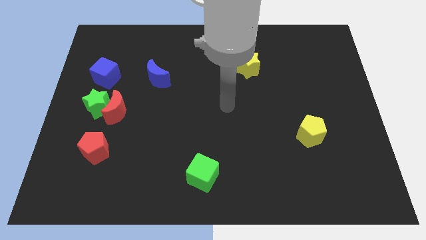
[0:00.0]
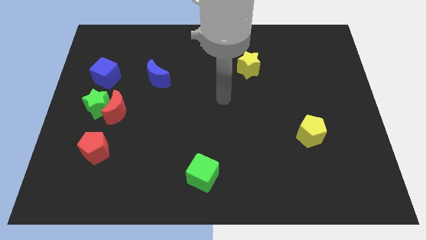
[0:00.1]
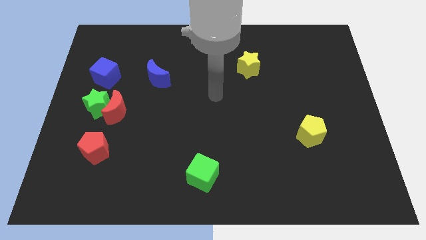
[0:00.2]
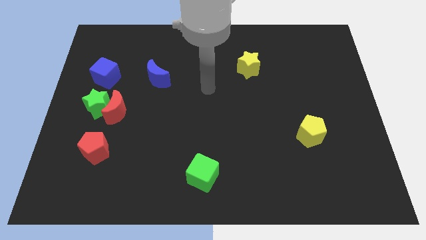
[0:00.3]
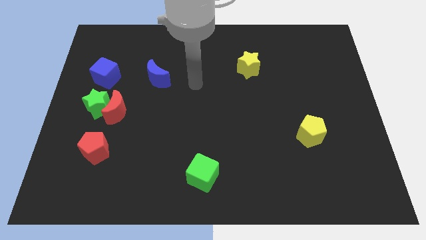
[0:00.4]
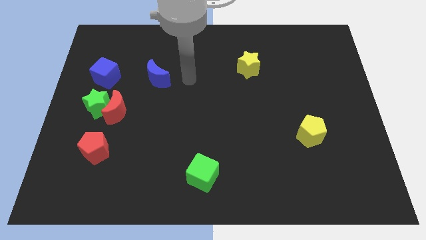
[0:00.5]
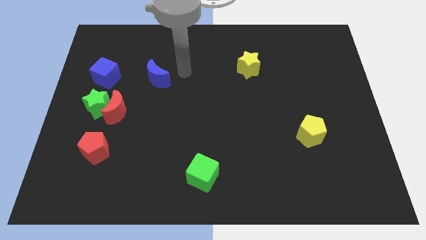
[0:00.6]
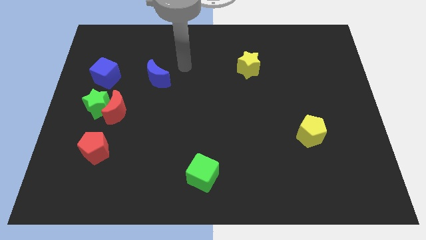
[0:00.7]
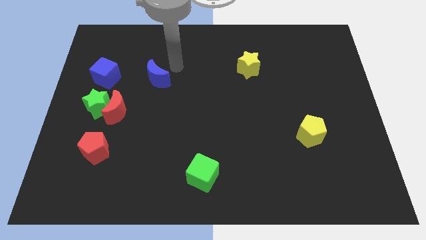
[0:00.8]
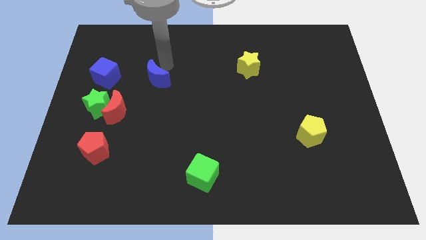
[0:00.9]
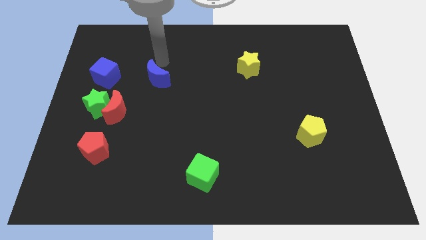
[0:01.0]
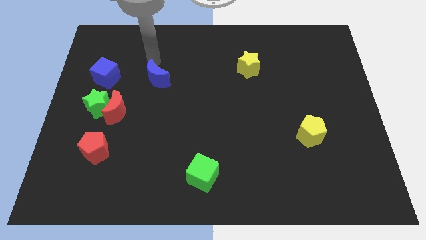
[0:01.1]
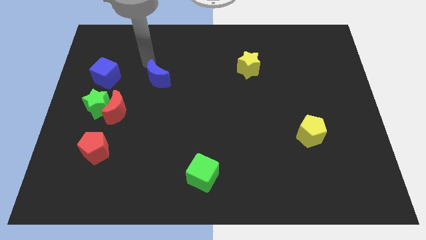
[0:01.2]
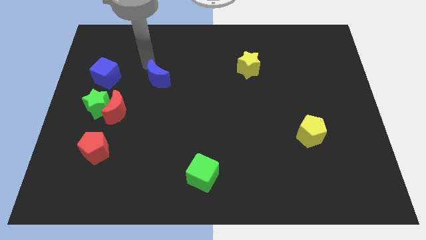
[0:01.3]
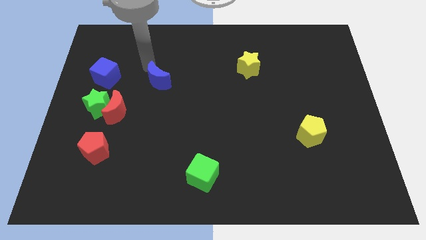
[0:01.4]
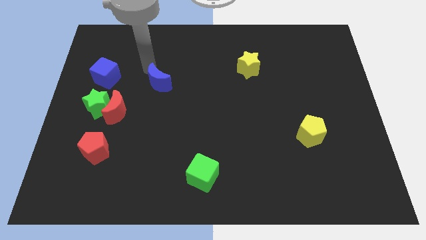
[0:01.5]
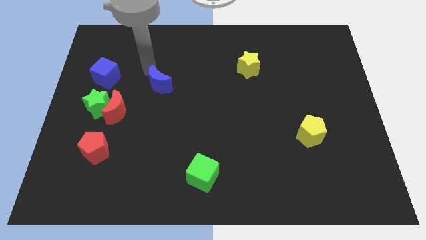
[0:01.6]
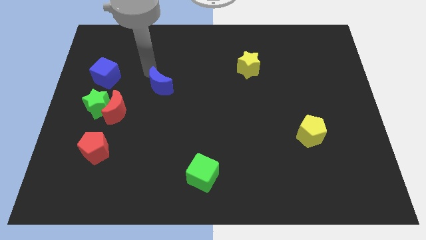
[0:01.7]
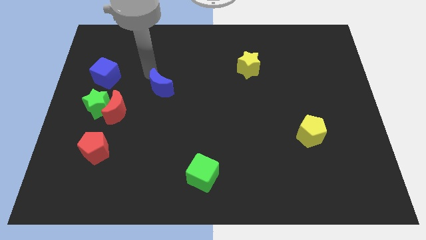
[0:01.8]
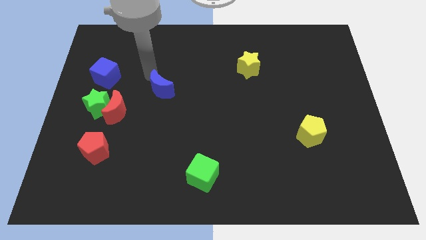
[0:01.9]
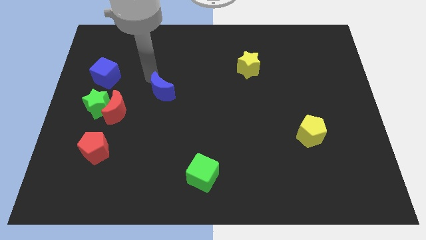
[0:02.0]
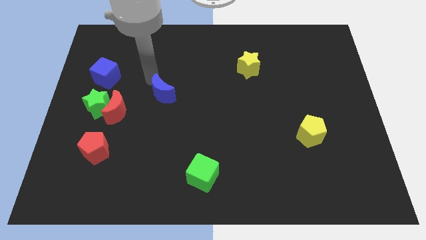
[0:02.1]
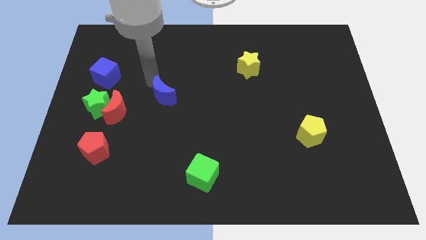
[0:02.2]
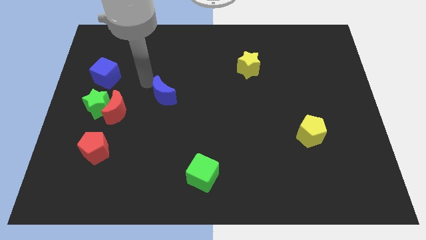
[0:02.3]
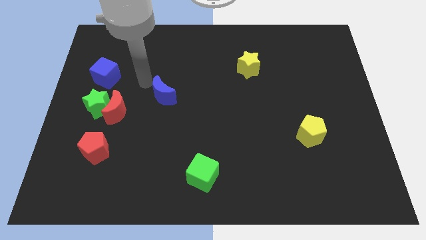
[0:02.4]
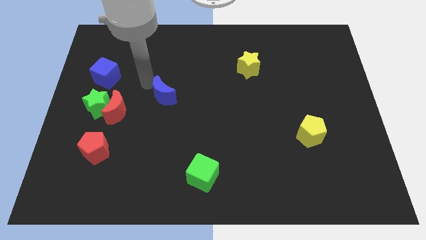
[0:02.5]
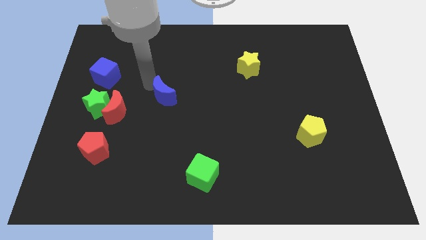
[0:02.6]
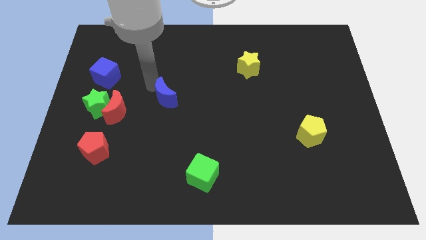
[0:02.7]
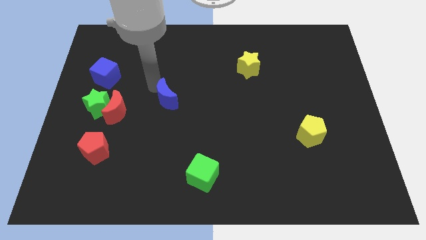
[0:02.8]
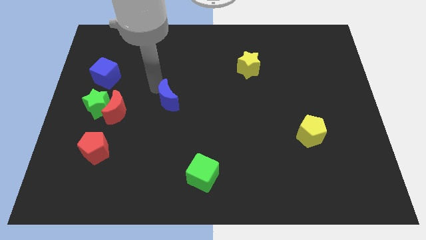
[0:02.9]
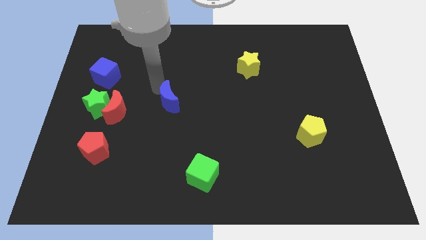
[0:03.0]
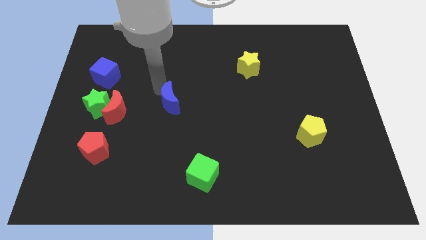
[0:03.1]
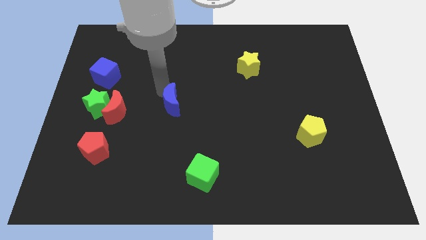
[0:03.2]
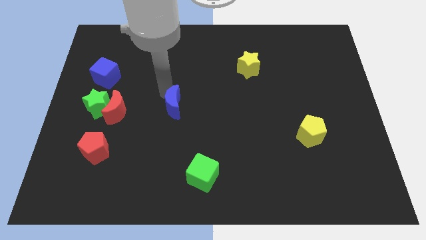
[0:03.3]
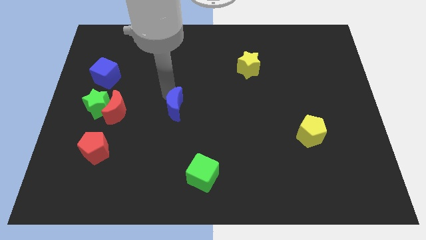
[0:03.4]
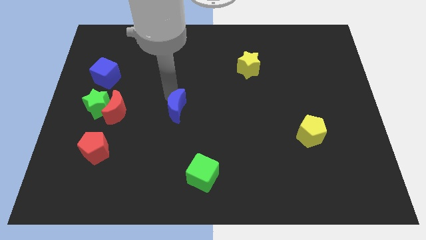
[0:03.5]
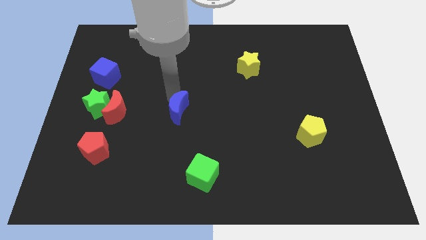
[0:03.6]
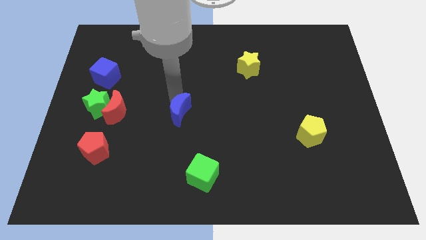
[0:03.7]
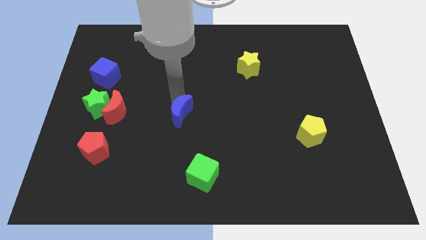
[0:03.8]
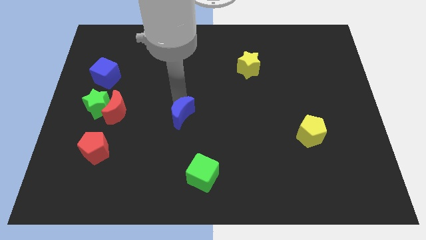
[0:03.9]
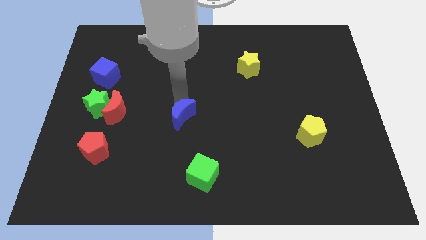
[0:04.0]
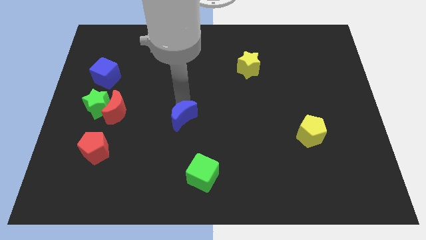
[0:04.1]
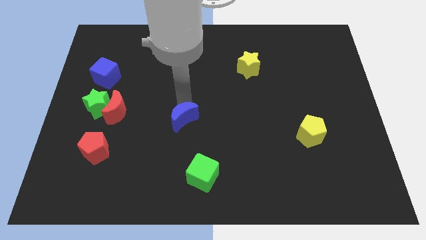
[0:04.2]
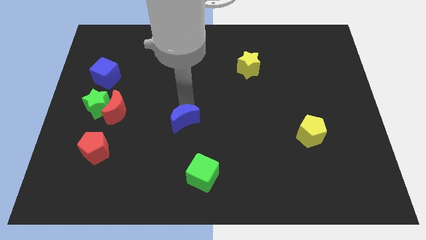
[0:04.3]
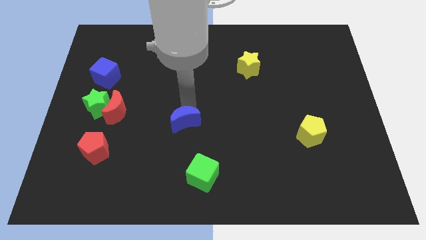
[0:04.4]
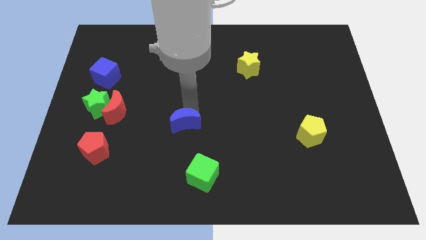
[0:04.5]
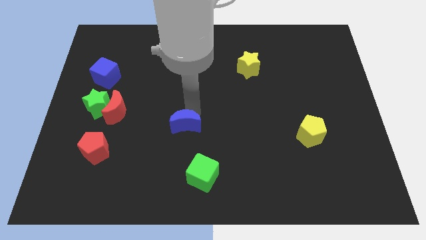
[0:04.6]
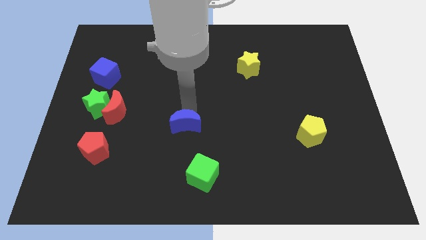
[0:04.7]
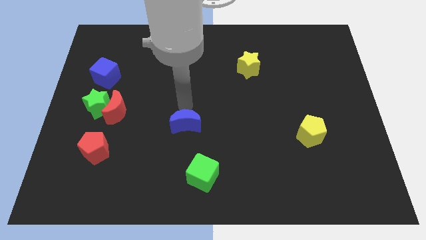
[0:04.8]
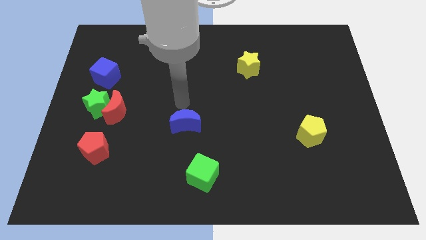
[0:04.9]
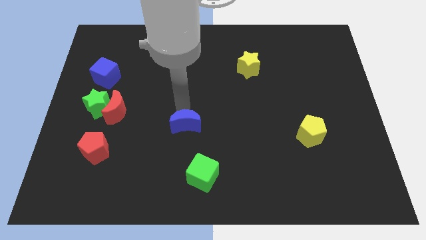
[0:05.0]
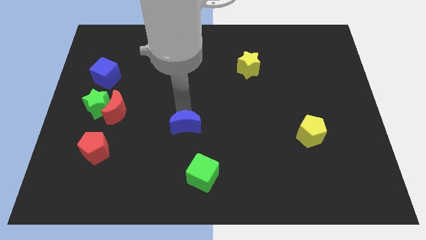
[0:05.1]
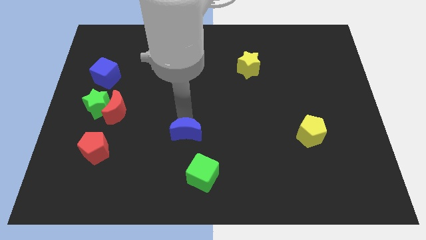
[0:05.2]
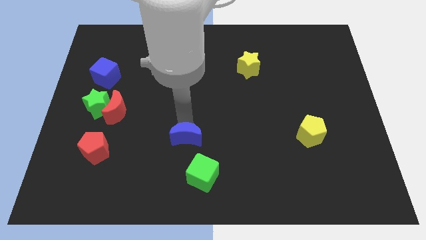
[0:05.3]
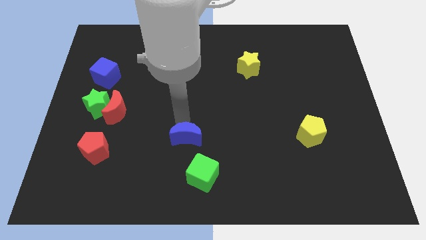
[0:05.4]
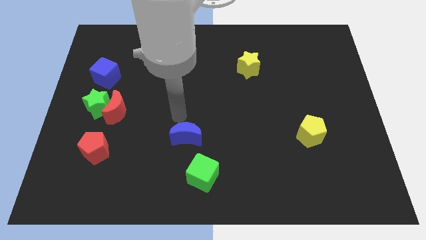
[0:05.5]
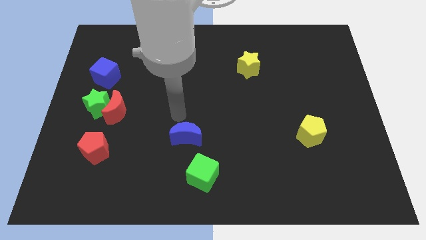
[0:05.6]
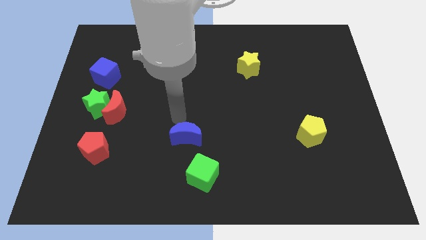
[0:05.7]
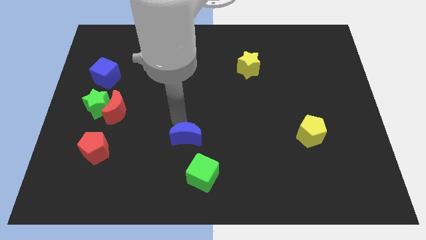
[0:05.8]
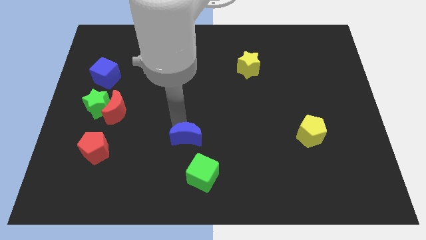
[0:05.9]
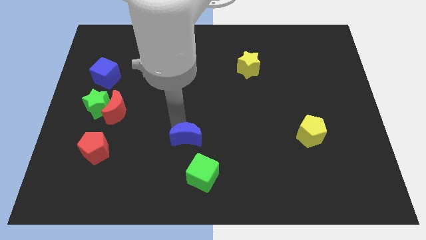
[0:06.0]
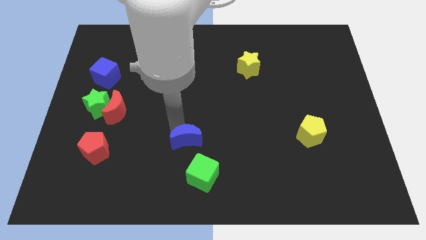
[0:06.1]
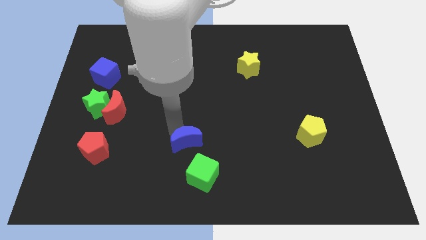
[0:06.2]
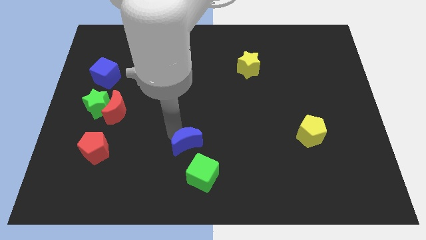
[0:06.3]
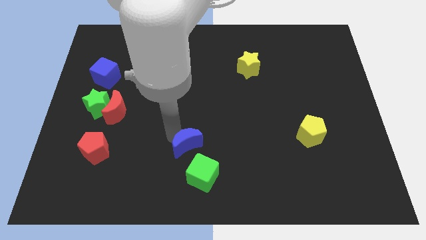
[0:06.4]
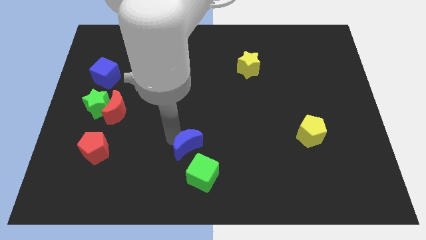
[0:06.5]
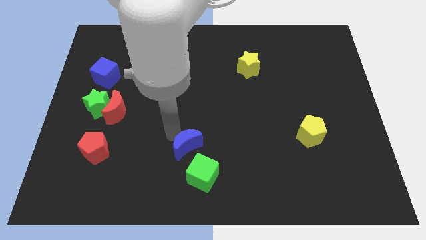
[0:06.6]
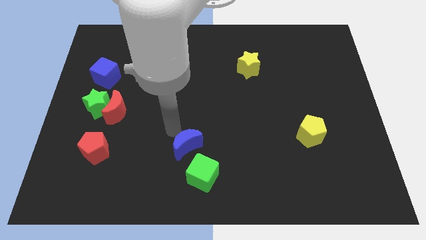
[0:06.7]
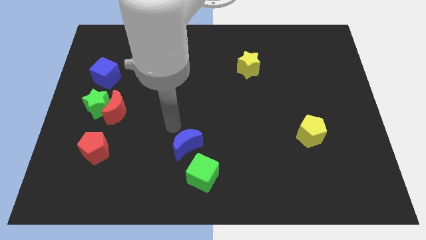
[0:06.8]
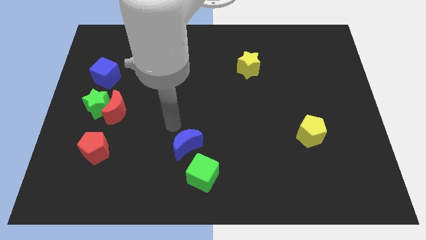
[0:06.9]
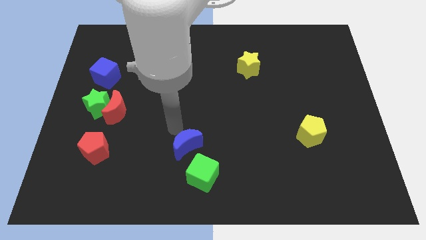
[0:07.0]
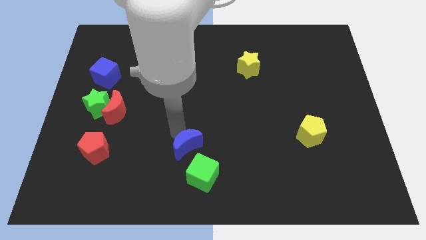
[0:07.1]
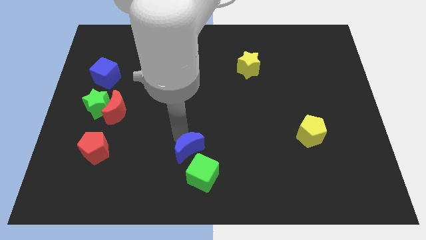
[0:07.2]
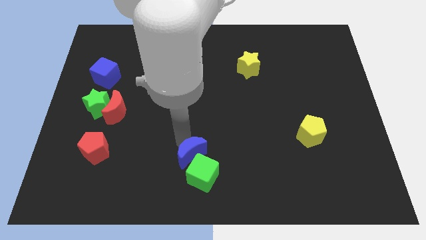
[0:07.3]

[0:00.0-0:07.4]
slide the blue moon to the green cube

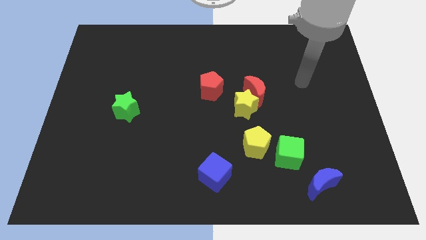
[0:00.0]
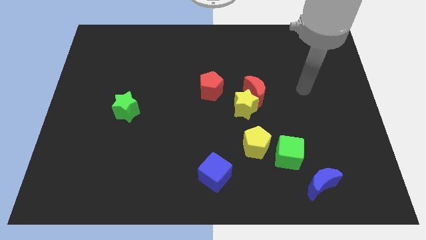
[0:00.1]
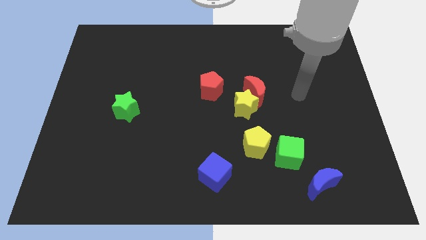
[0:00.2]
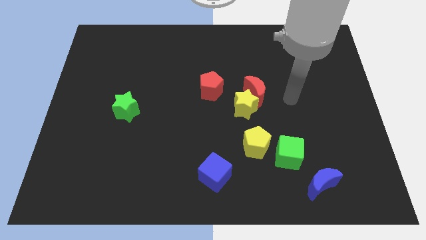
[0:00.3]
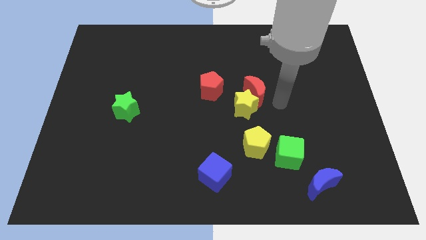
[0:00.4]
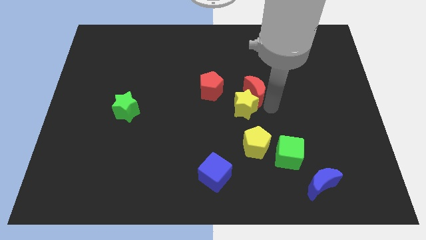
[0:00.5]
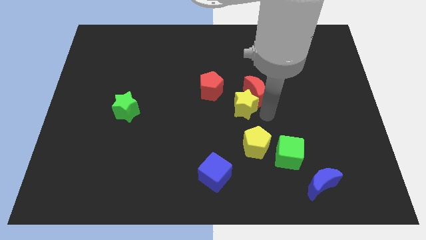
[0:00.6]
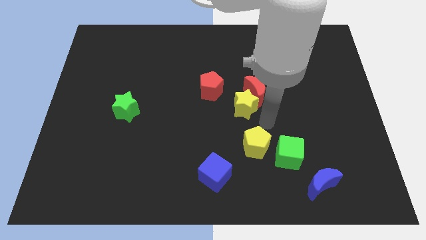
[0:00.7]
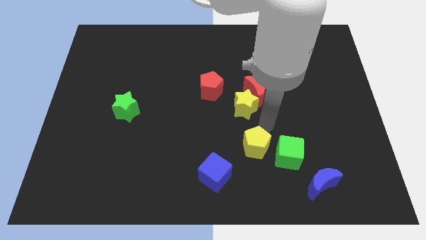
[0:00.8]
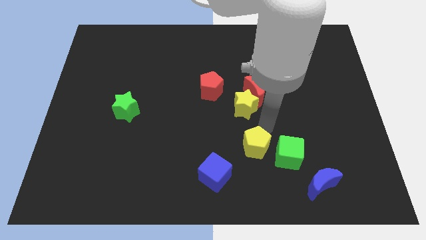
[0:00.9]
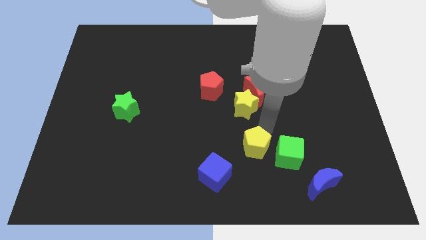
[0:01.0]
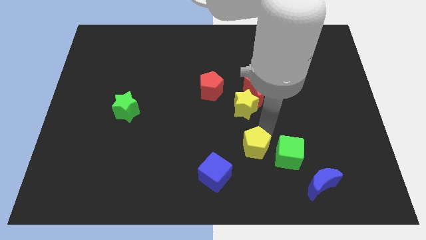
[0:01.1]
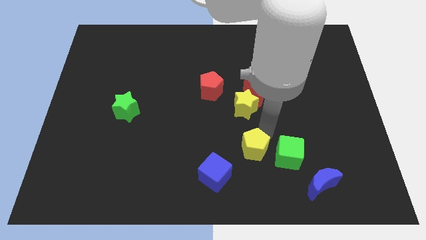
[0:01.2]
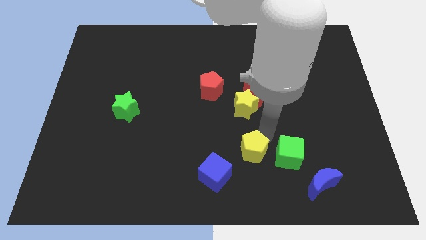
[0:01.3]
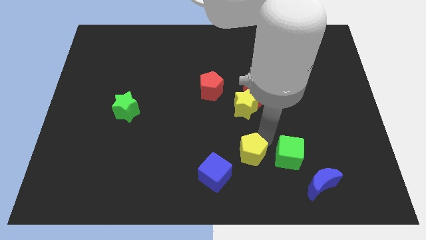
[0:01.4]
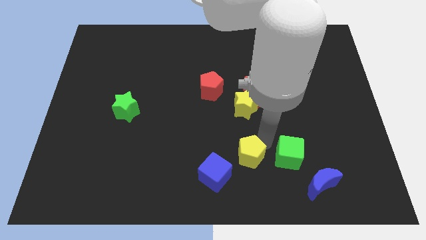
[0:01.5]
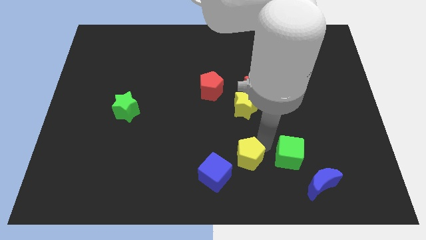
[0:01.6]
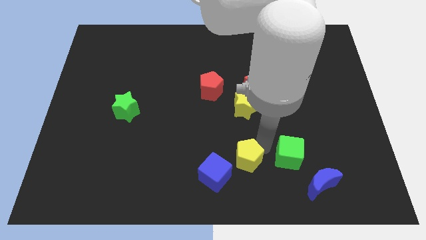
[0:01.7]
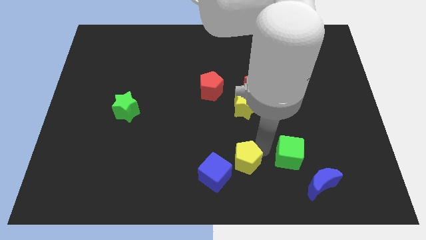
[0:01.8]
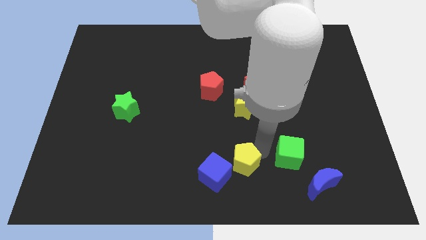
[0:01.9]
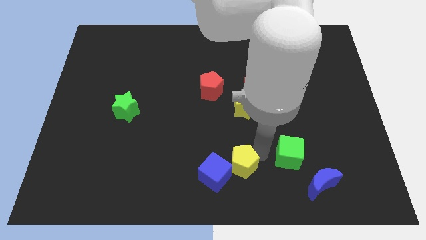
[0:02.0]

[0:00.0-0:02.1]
push the yellow pentagon to the blue cube
